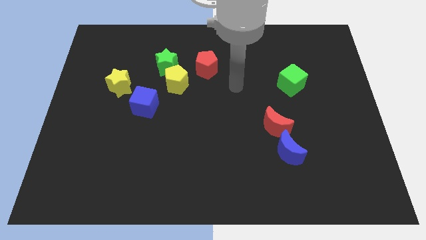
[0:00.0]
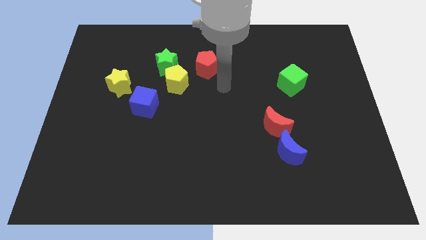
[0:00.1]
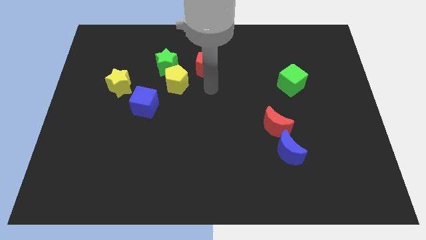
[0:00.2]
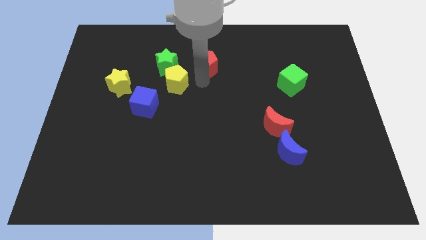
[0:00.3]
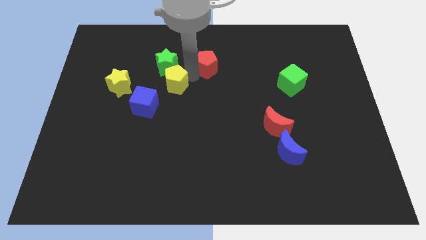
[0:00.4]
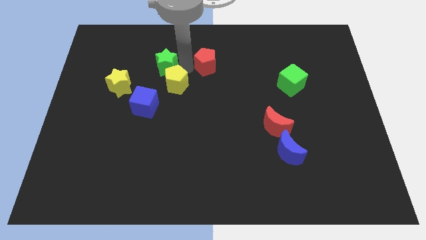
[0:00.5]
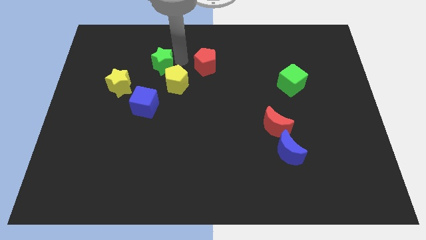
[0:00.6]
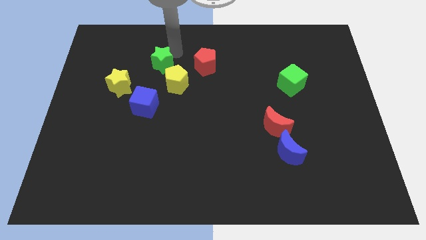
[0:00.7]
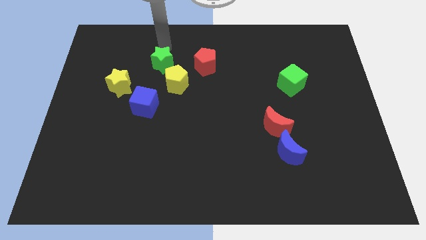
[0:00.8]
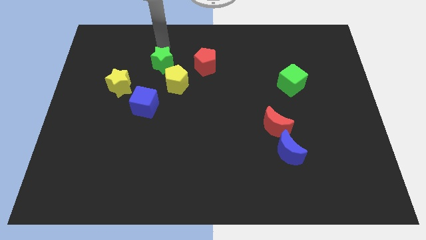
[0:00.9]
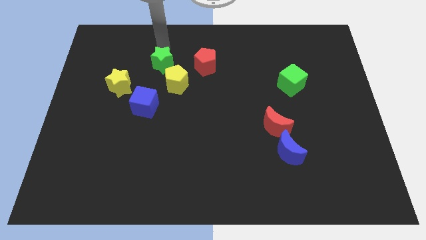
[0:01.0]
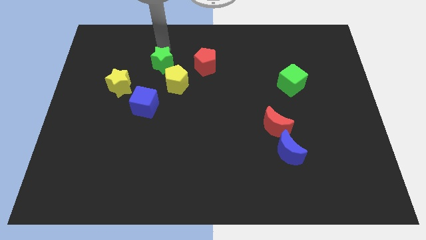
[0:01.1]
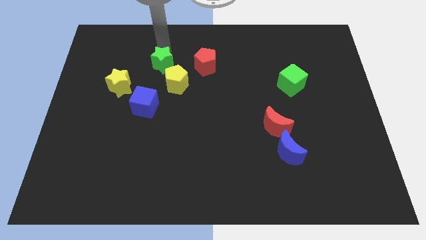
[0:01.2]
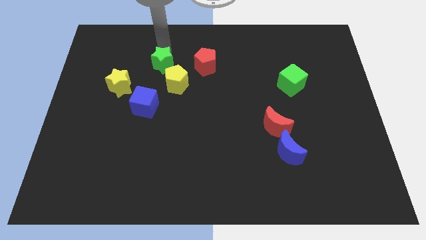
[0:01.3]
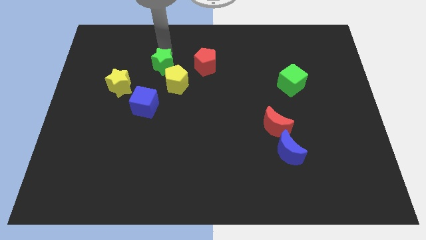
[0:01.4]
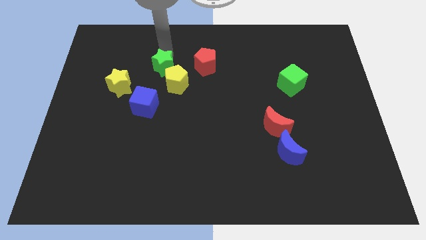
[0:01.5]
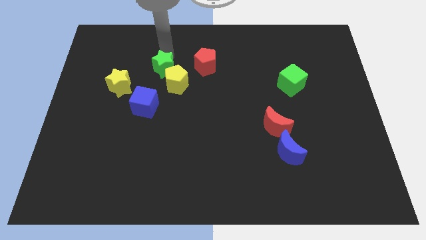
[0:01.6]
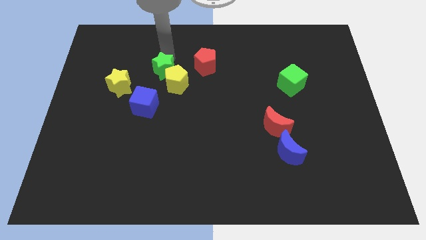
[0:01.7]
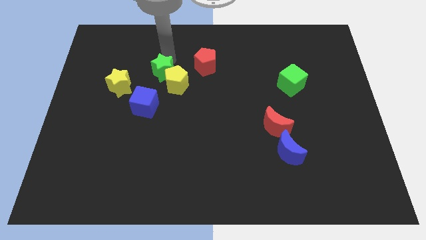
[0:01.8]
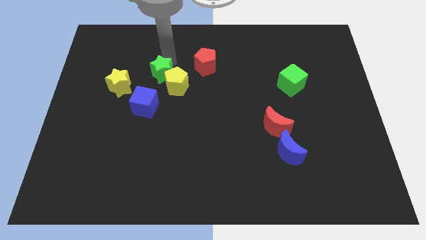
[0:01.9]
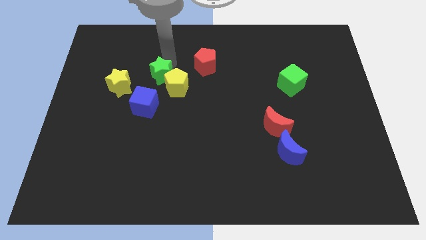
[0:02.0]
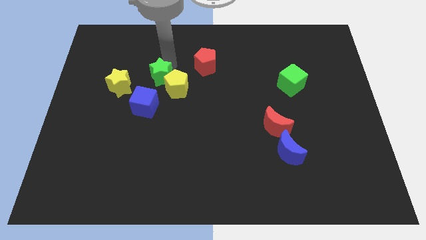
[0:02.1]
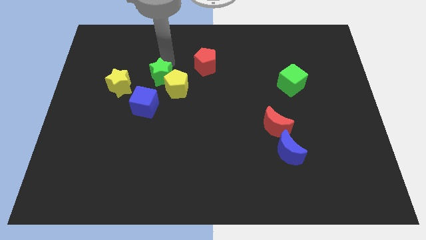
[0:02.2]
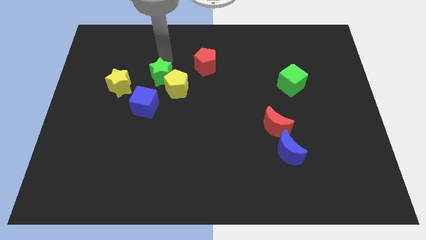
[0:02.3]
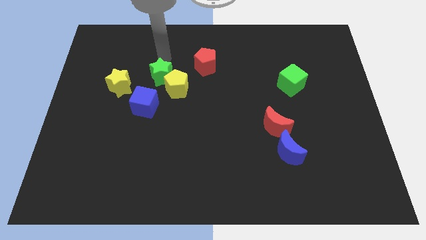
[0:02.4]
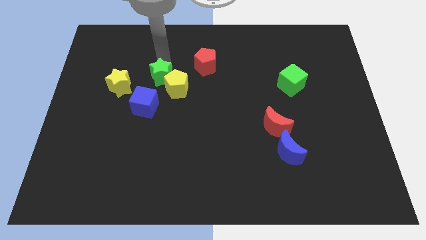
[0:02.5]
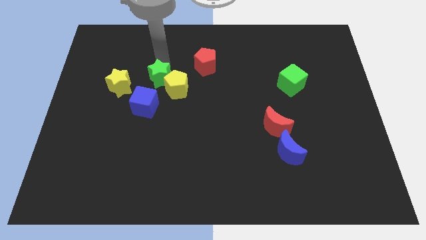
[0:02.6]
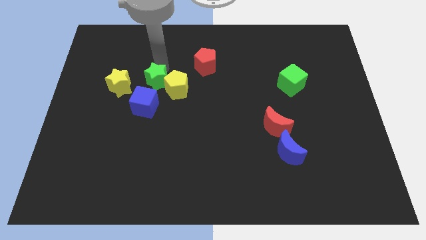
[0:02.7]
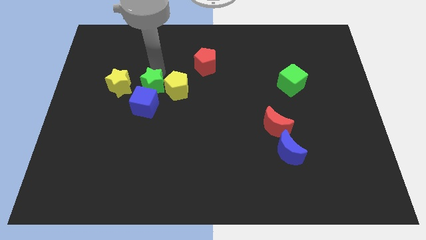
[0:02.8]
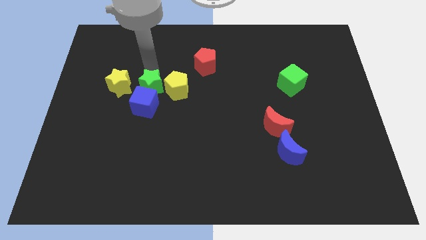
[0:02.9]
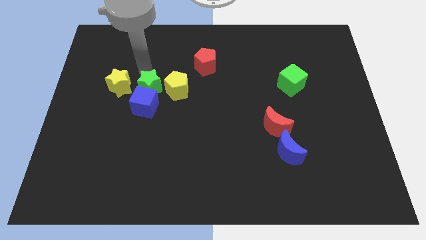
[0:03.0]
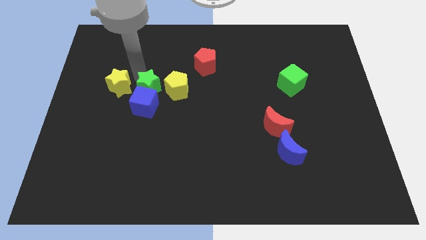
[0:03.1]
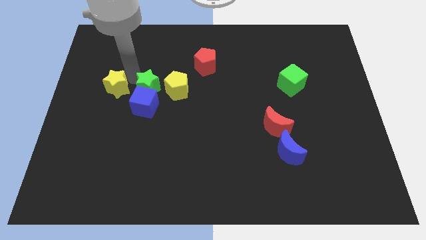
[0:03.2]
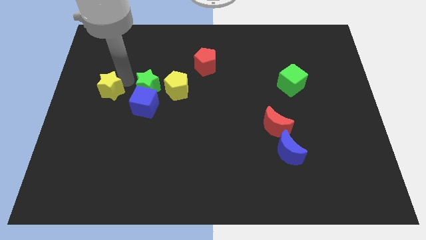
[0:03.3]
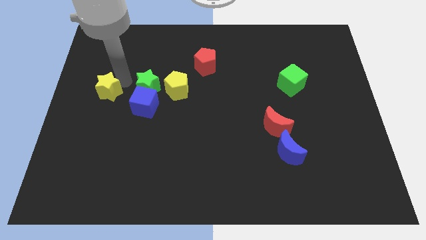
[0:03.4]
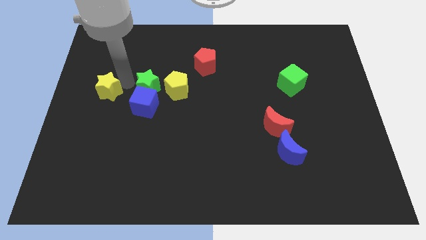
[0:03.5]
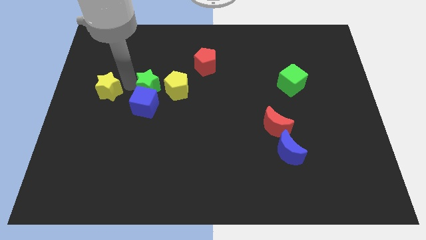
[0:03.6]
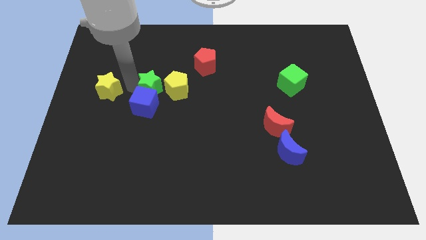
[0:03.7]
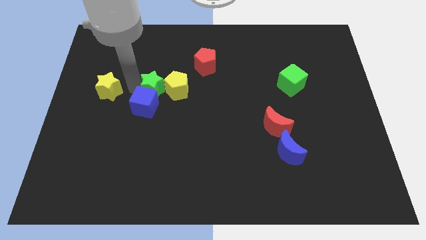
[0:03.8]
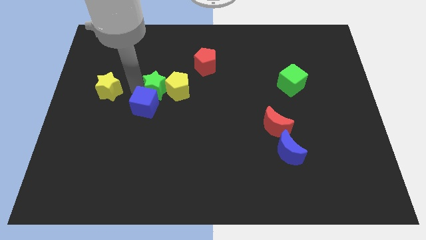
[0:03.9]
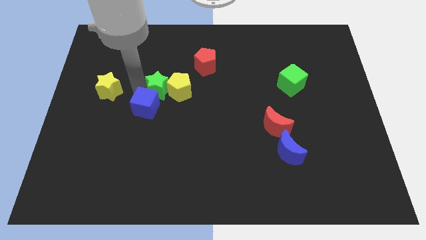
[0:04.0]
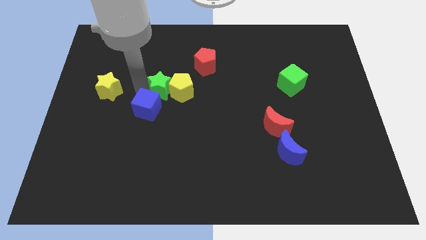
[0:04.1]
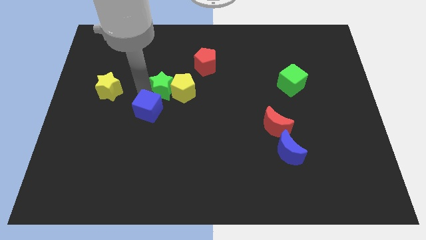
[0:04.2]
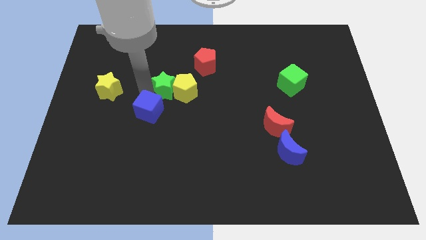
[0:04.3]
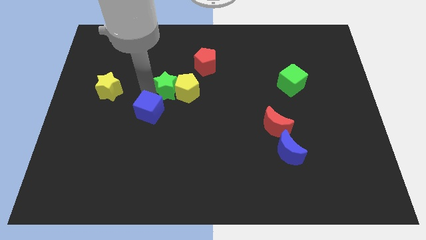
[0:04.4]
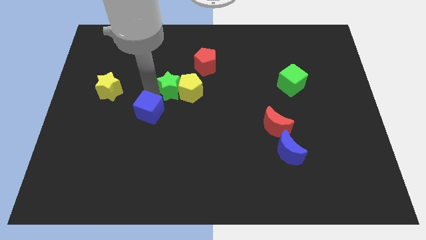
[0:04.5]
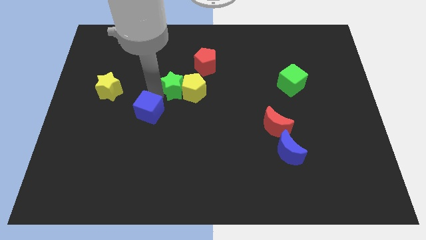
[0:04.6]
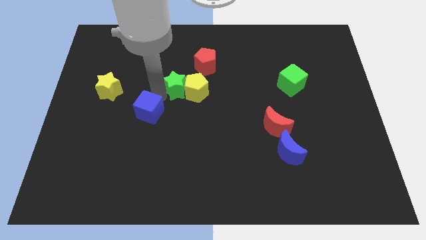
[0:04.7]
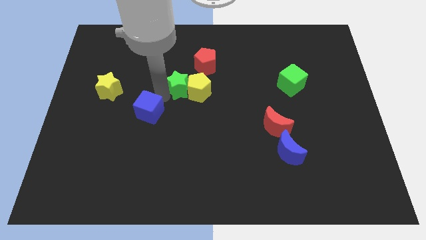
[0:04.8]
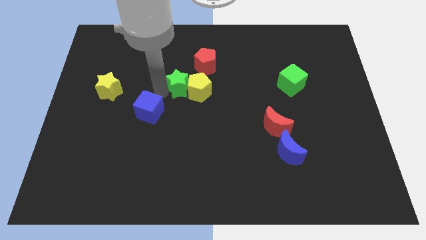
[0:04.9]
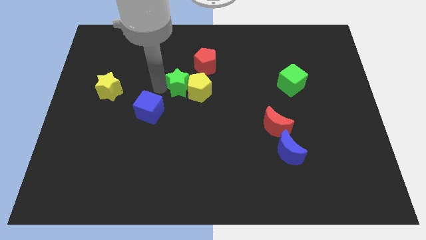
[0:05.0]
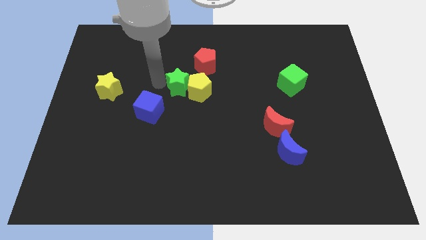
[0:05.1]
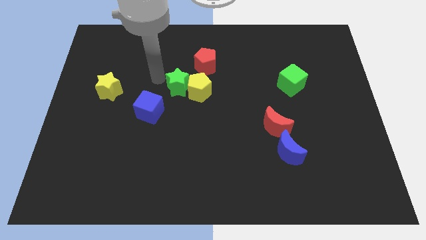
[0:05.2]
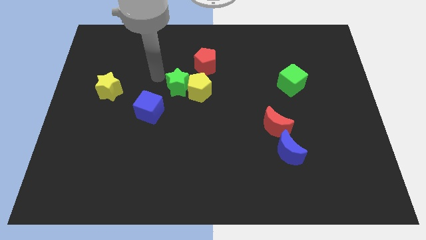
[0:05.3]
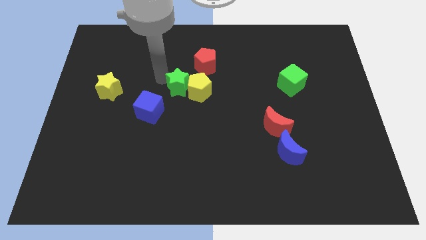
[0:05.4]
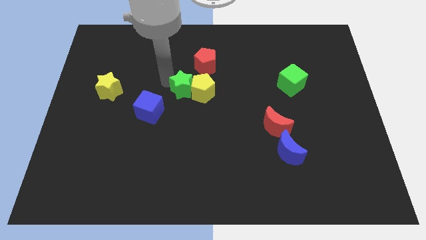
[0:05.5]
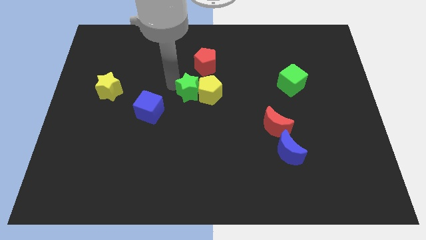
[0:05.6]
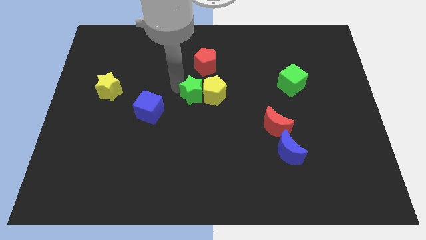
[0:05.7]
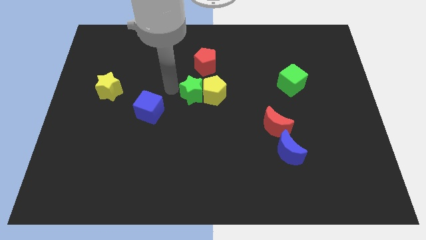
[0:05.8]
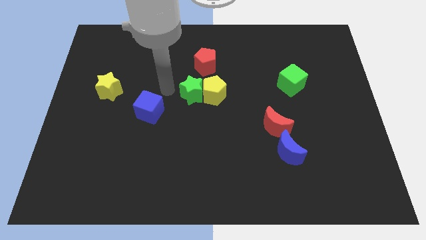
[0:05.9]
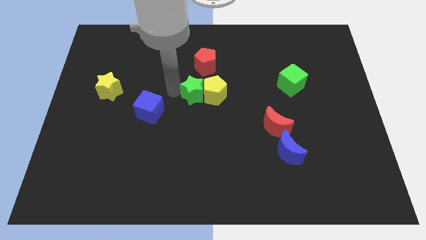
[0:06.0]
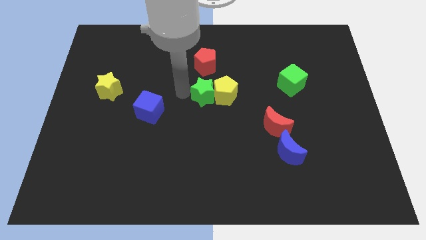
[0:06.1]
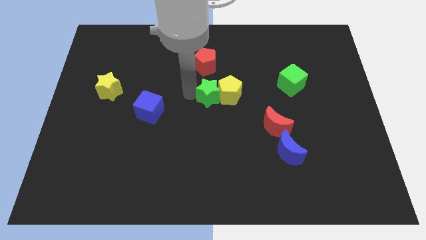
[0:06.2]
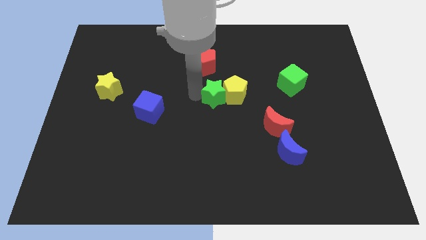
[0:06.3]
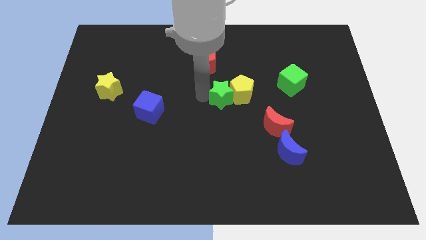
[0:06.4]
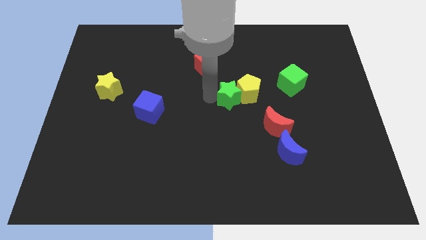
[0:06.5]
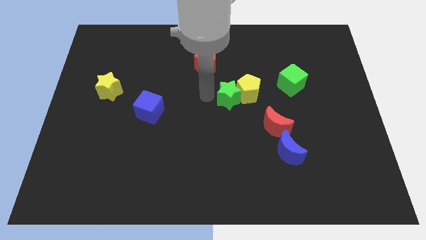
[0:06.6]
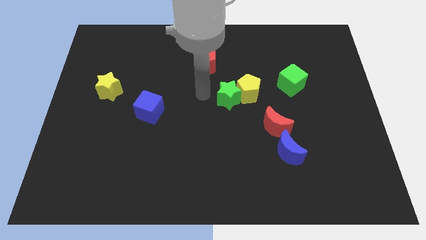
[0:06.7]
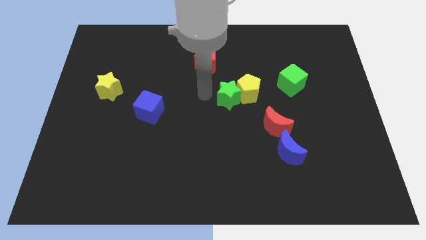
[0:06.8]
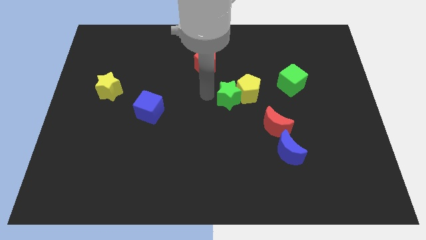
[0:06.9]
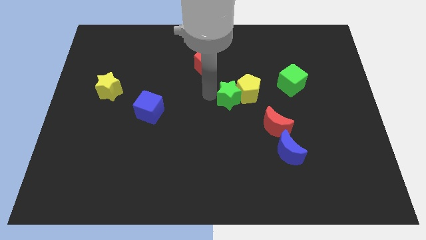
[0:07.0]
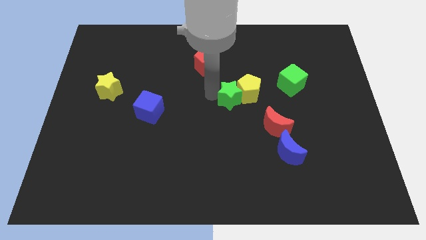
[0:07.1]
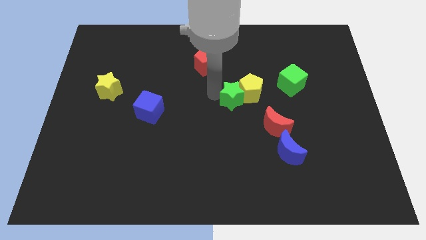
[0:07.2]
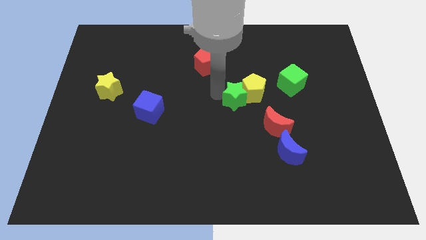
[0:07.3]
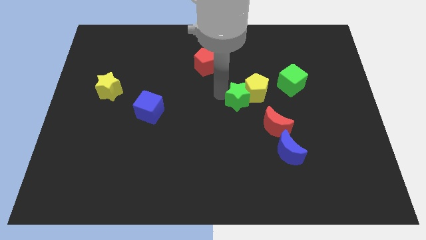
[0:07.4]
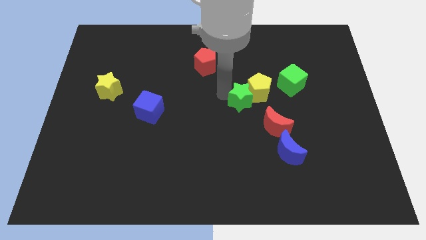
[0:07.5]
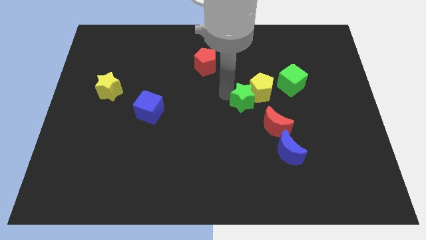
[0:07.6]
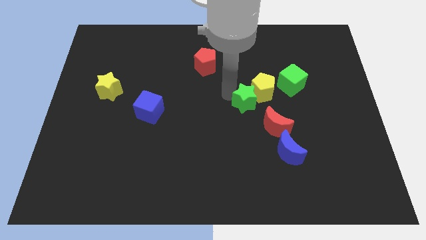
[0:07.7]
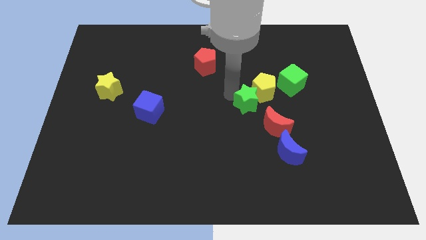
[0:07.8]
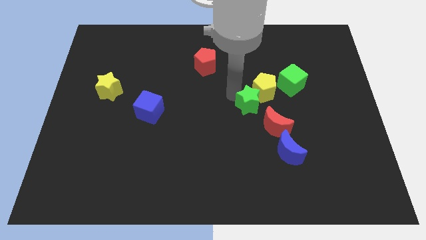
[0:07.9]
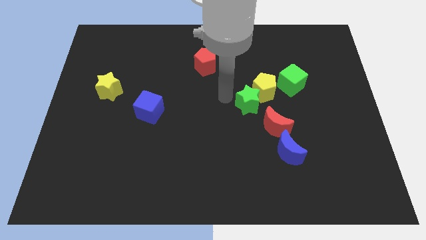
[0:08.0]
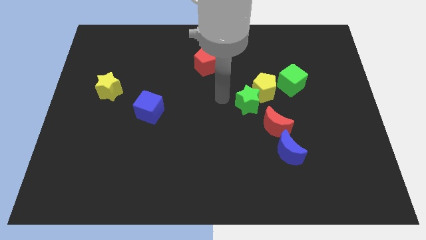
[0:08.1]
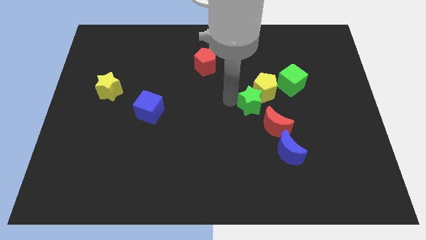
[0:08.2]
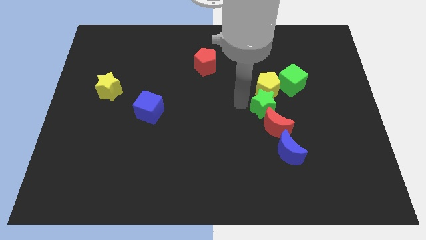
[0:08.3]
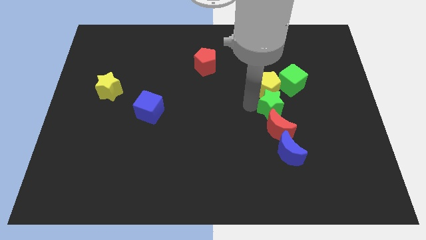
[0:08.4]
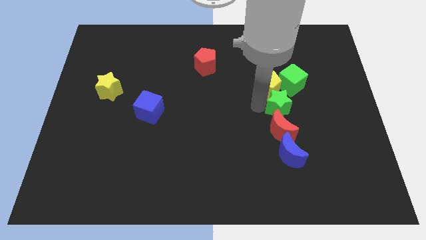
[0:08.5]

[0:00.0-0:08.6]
put the green star to the bottom side of the green cube
